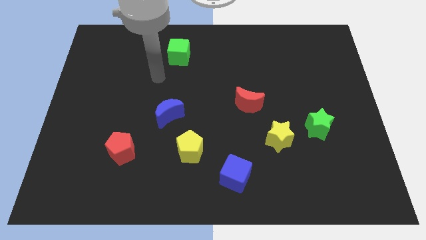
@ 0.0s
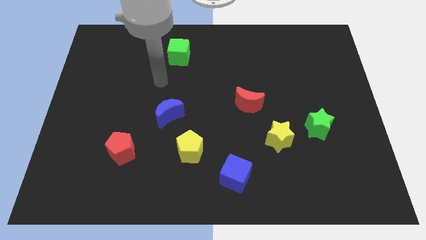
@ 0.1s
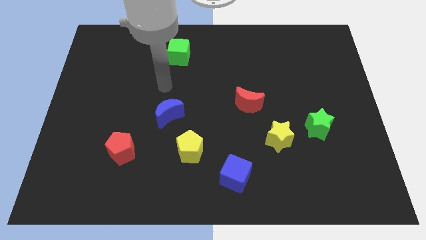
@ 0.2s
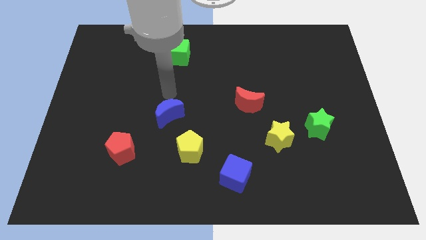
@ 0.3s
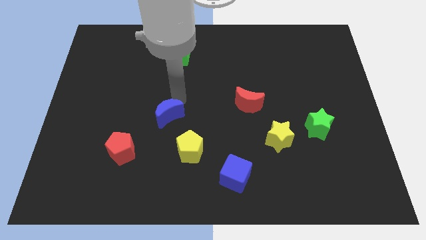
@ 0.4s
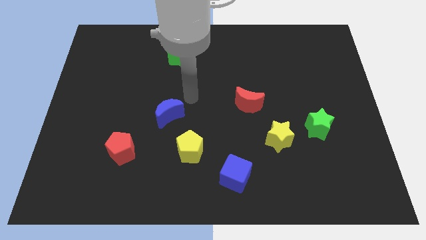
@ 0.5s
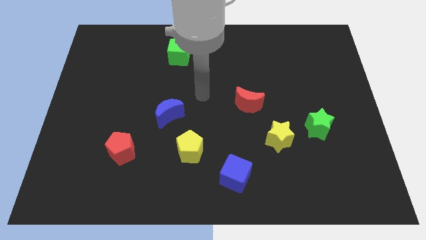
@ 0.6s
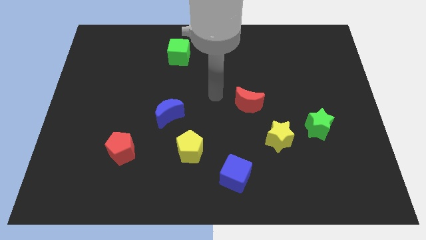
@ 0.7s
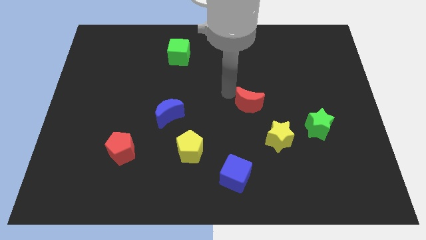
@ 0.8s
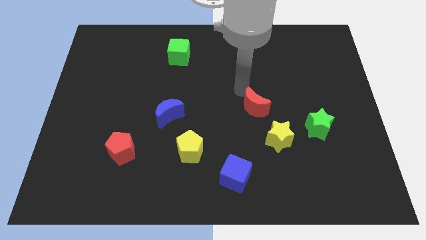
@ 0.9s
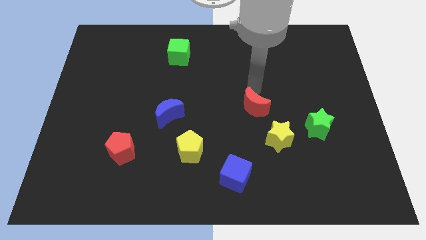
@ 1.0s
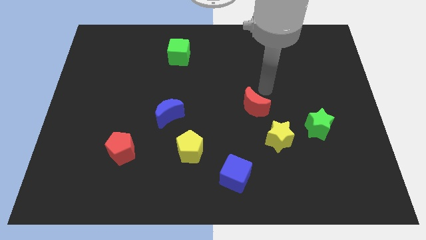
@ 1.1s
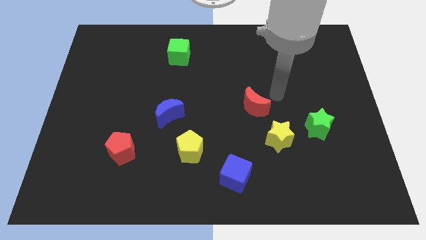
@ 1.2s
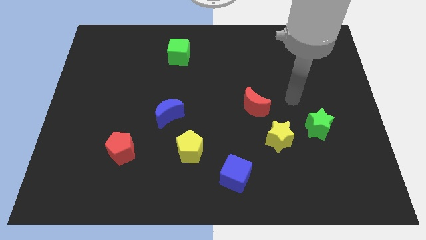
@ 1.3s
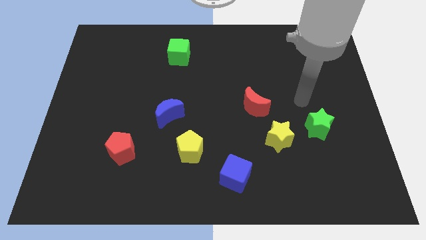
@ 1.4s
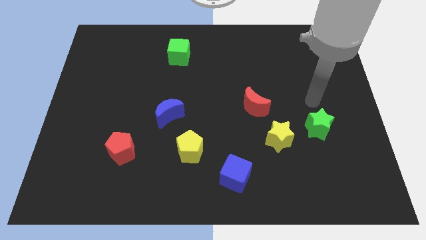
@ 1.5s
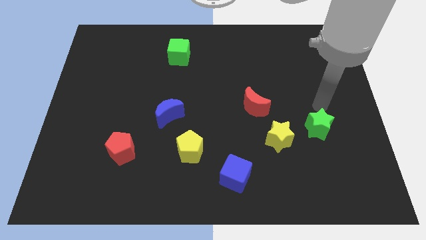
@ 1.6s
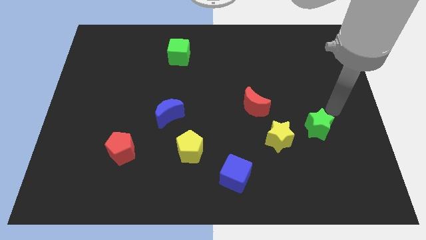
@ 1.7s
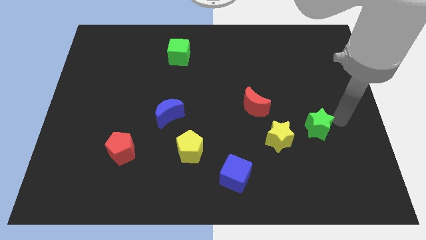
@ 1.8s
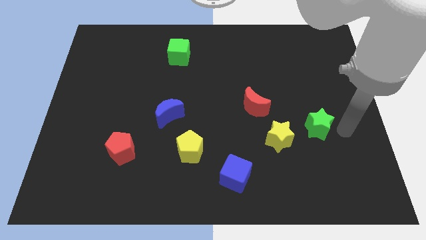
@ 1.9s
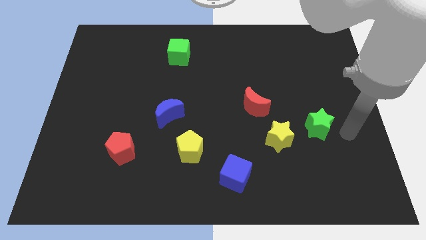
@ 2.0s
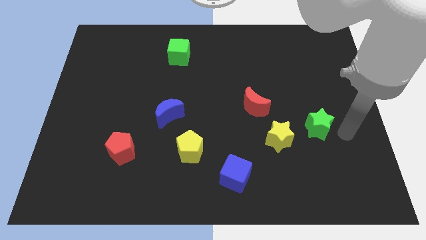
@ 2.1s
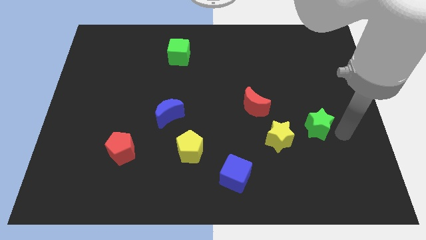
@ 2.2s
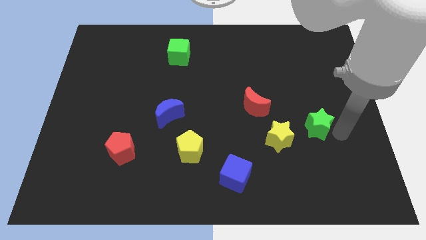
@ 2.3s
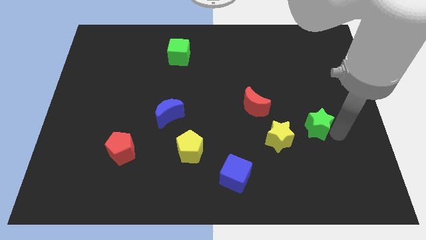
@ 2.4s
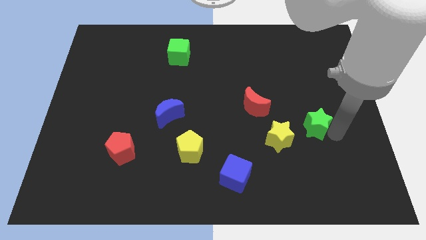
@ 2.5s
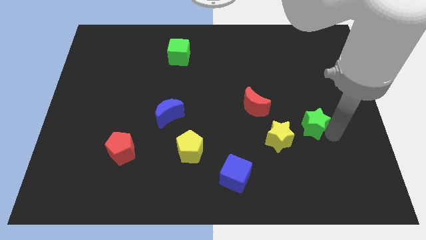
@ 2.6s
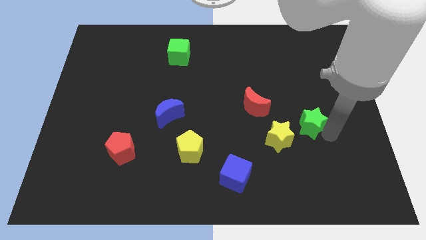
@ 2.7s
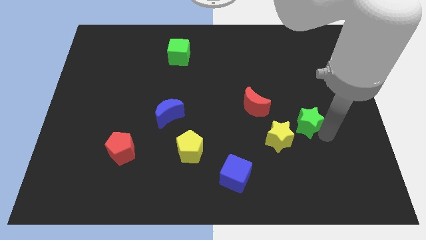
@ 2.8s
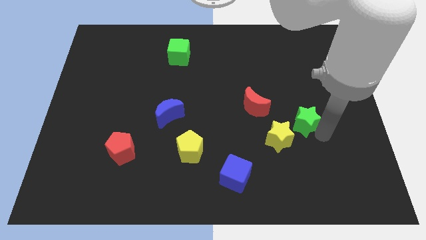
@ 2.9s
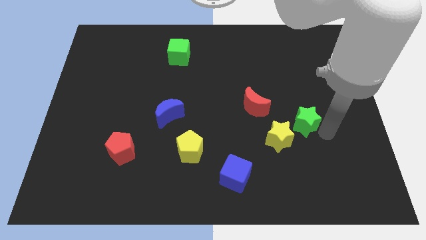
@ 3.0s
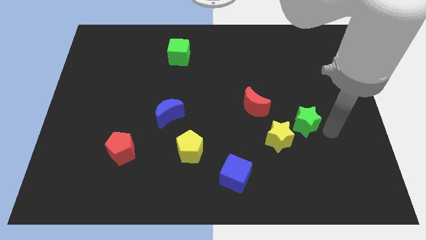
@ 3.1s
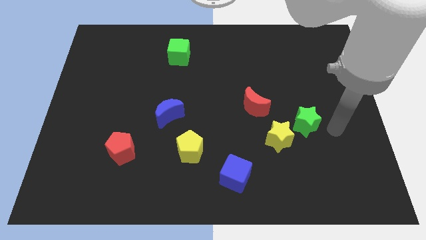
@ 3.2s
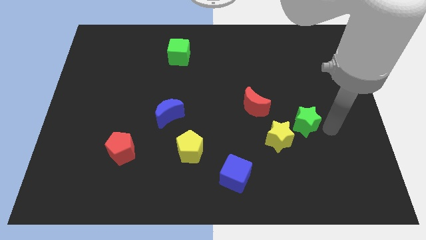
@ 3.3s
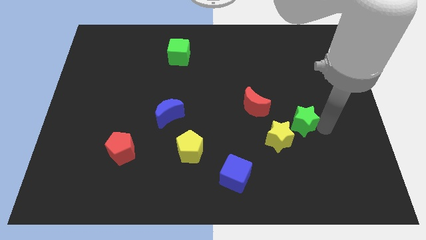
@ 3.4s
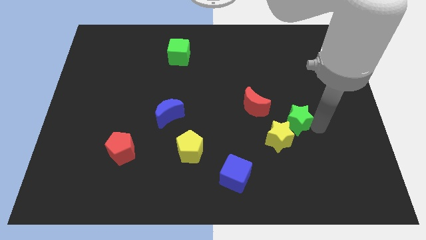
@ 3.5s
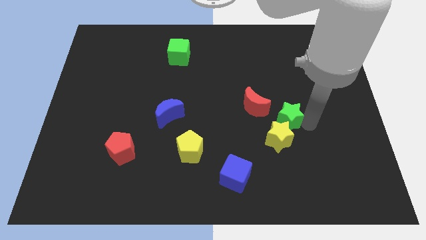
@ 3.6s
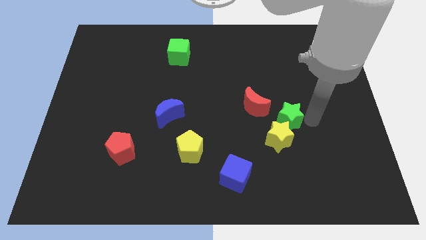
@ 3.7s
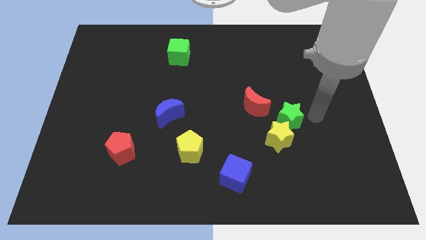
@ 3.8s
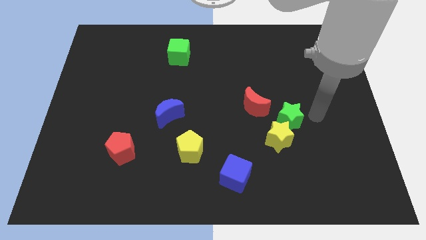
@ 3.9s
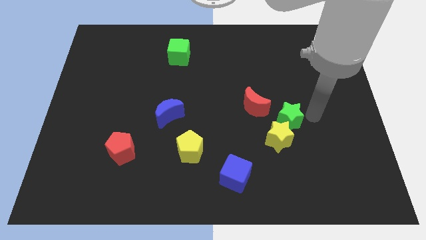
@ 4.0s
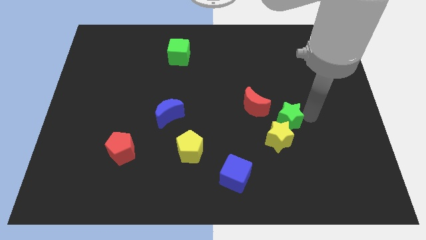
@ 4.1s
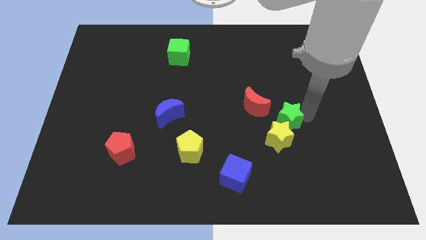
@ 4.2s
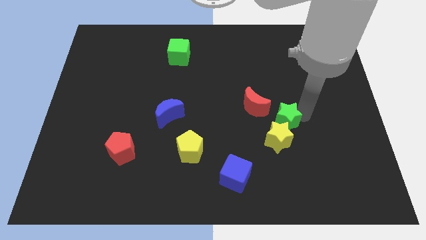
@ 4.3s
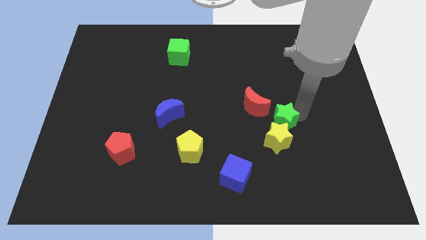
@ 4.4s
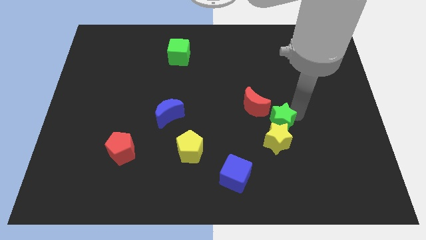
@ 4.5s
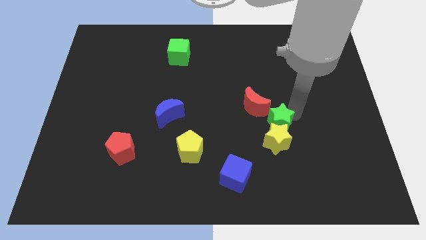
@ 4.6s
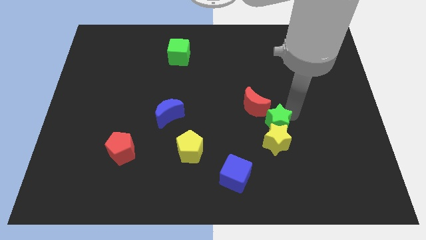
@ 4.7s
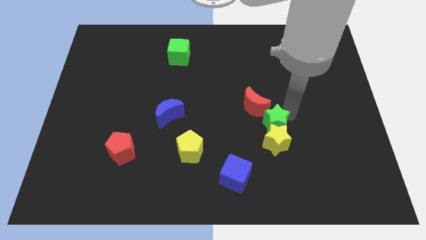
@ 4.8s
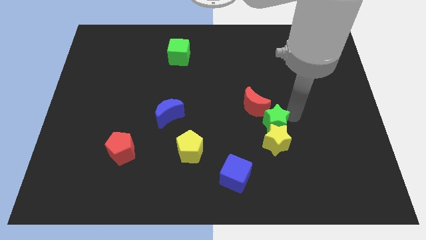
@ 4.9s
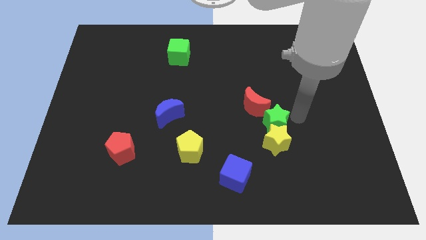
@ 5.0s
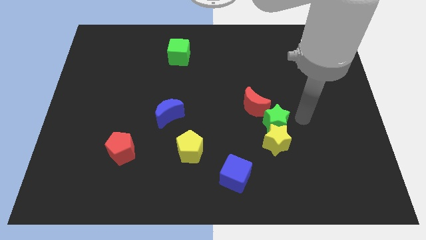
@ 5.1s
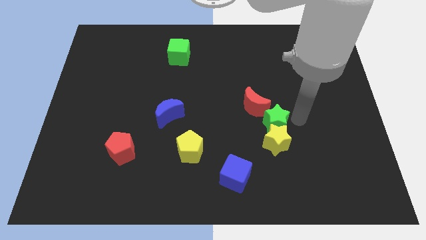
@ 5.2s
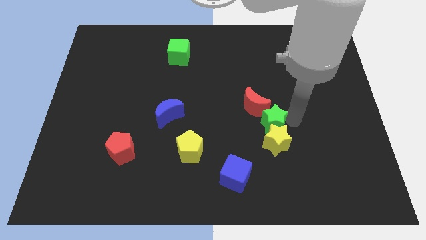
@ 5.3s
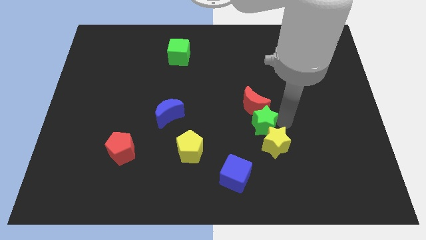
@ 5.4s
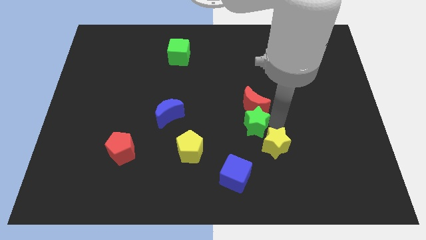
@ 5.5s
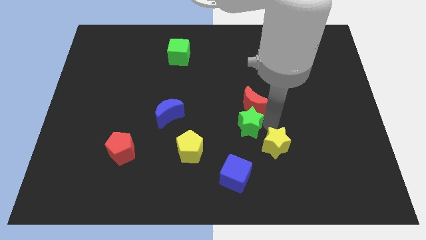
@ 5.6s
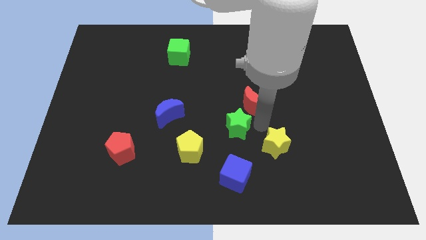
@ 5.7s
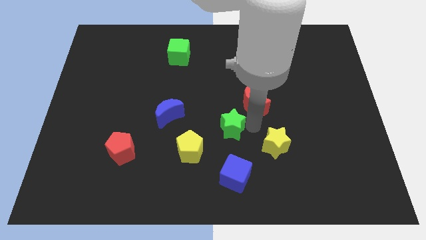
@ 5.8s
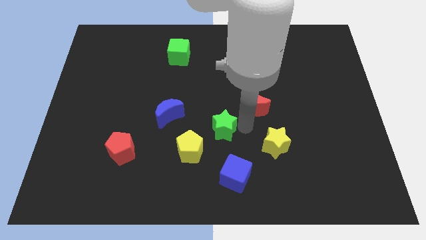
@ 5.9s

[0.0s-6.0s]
slide the green star to the left

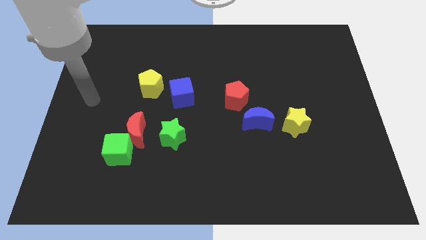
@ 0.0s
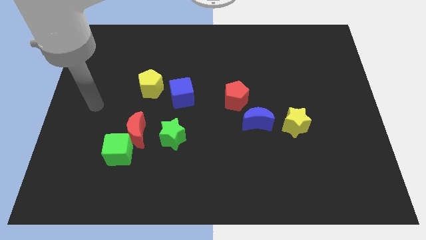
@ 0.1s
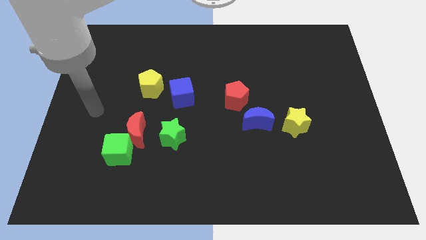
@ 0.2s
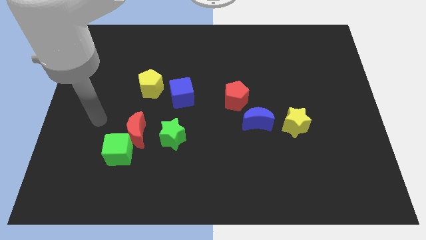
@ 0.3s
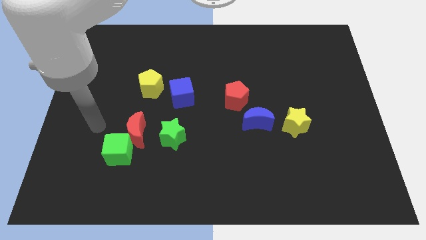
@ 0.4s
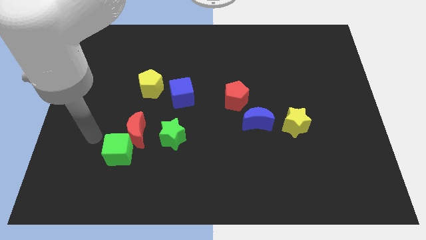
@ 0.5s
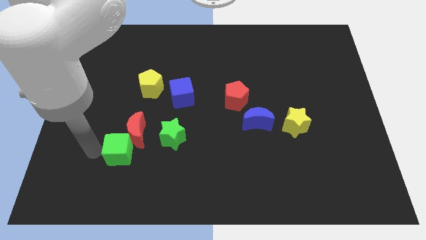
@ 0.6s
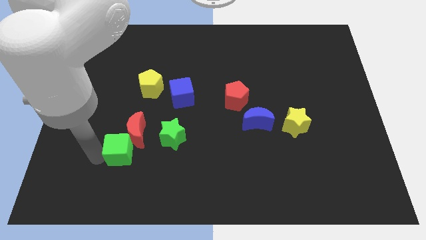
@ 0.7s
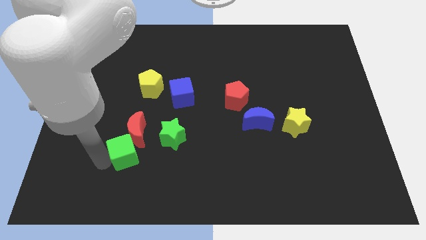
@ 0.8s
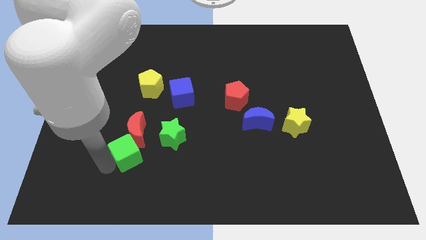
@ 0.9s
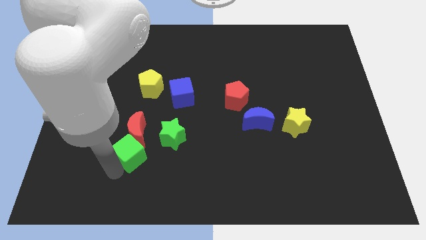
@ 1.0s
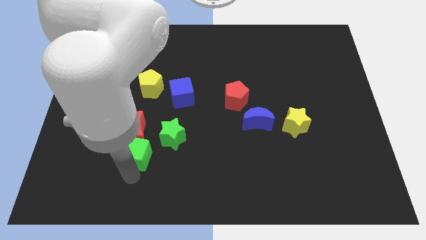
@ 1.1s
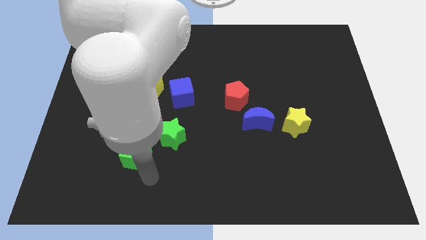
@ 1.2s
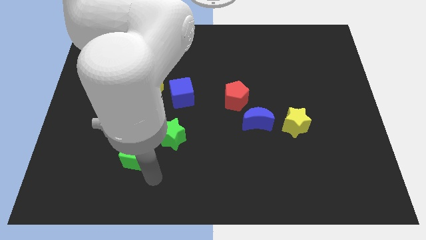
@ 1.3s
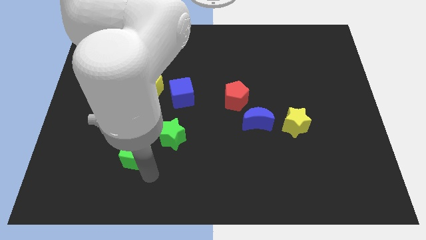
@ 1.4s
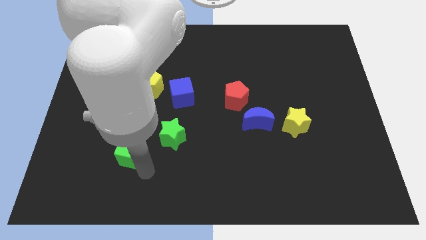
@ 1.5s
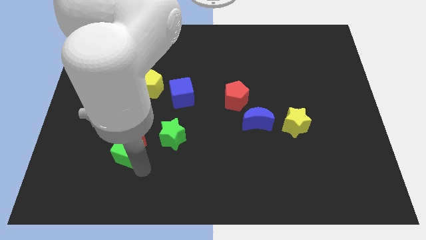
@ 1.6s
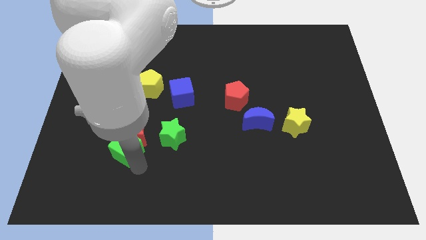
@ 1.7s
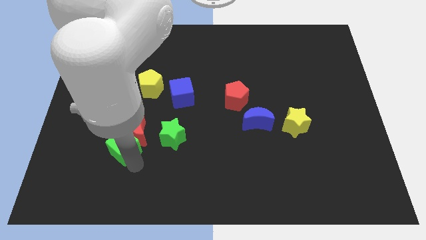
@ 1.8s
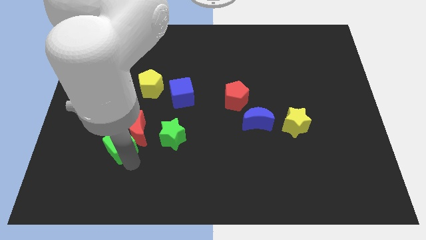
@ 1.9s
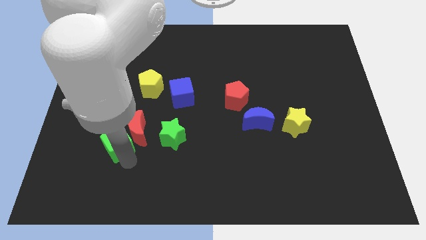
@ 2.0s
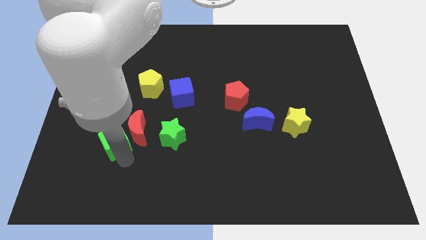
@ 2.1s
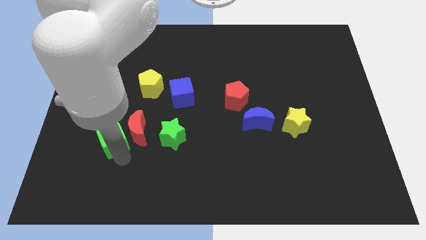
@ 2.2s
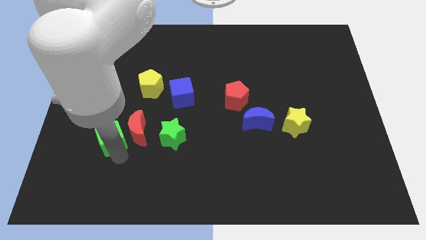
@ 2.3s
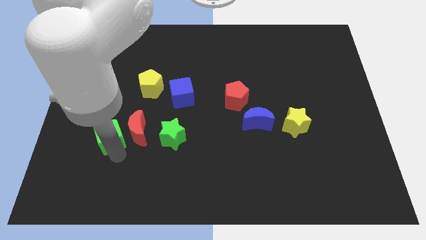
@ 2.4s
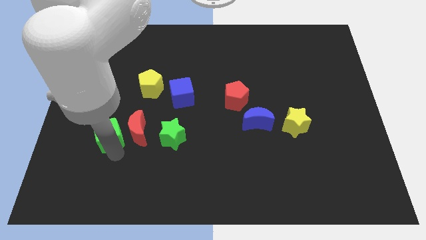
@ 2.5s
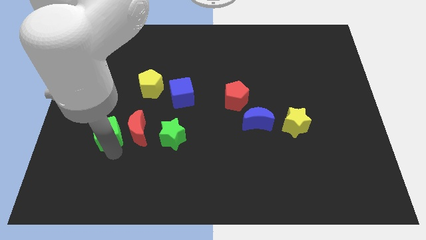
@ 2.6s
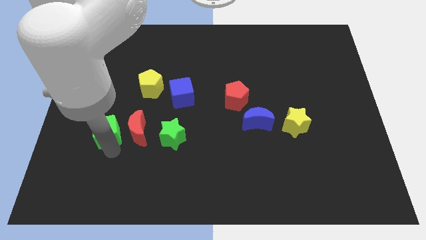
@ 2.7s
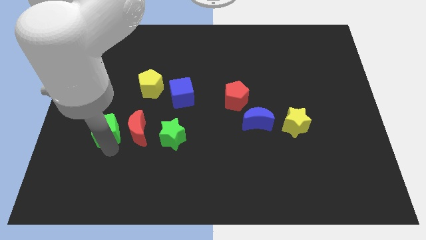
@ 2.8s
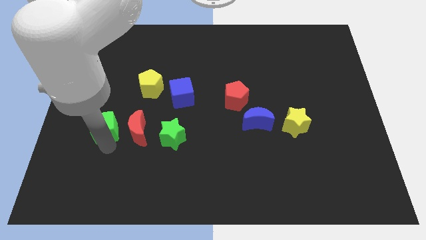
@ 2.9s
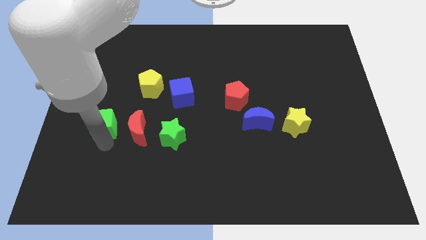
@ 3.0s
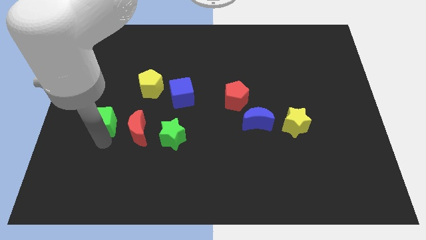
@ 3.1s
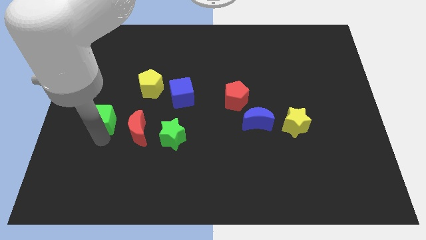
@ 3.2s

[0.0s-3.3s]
slightly push the green cube up
